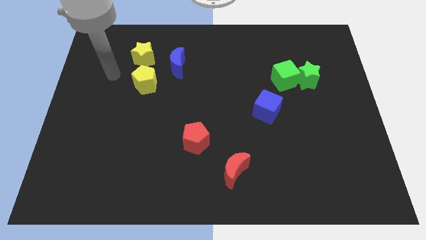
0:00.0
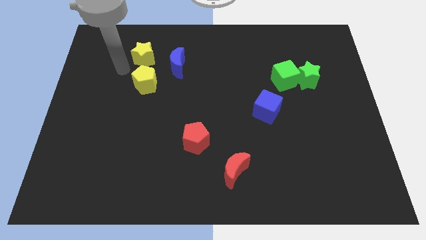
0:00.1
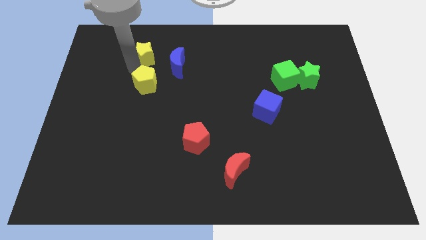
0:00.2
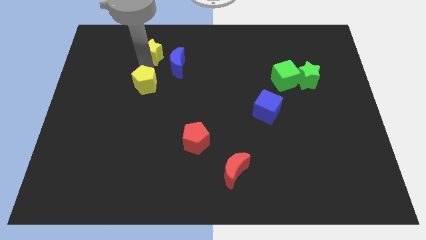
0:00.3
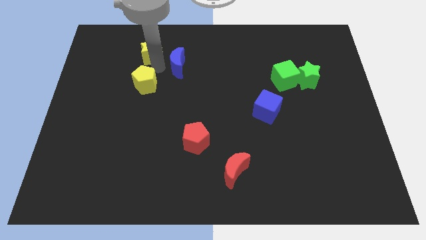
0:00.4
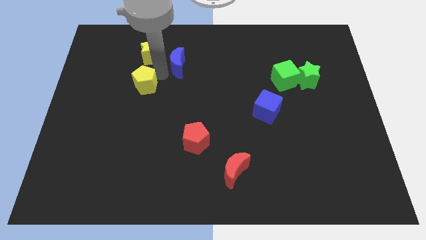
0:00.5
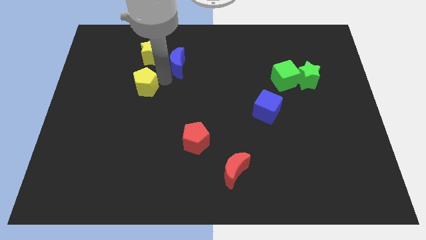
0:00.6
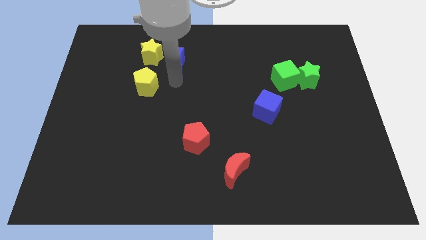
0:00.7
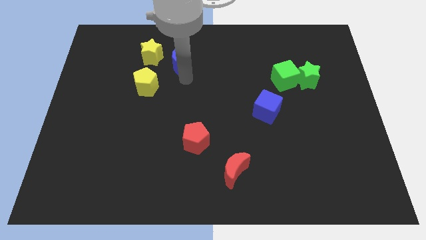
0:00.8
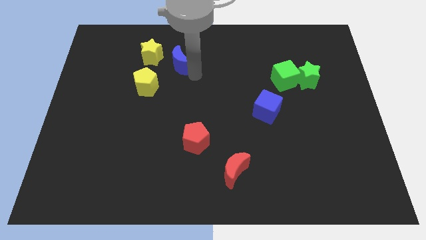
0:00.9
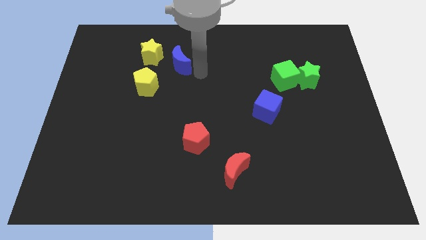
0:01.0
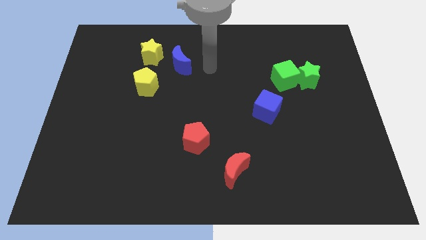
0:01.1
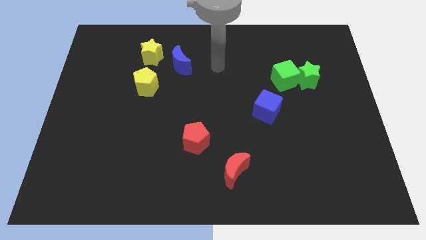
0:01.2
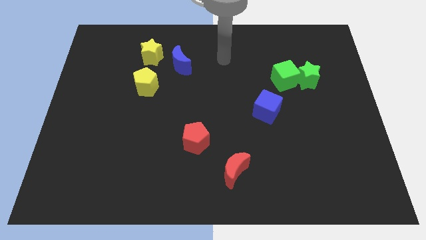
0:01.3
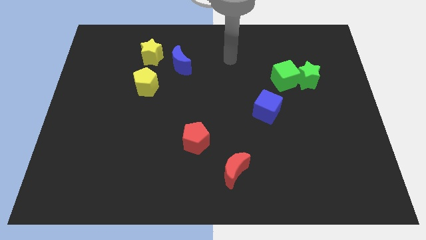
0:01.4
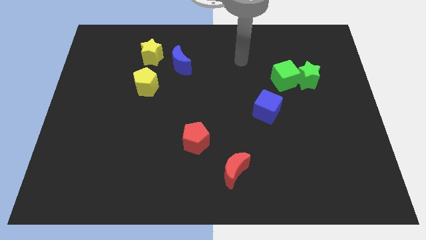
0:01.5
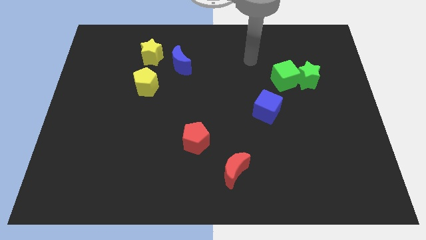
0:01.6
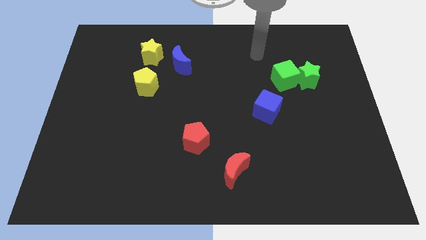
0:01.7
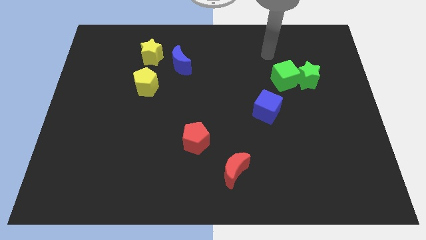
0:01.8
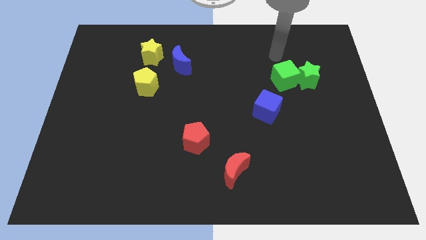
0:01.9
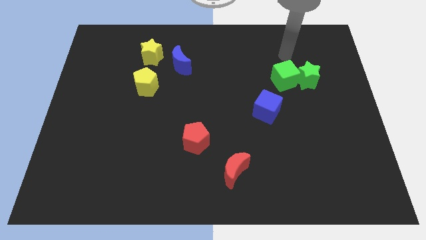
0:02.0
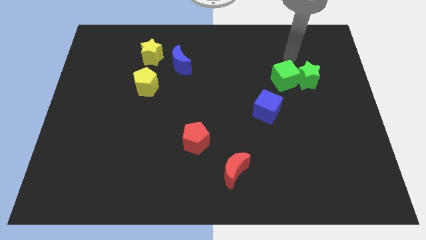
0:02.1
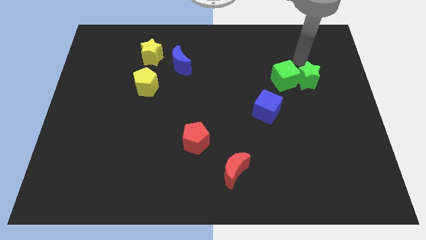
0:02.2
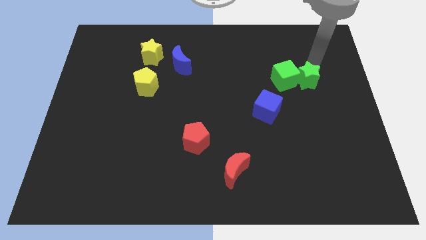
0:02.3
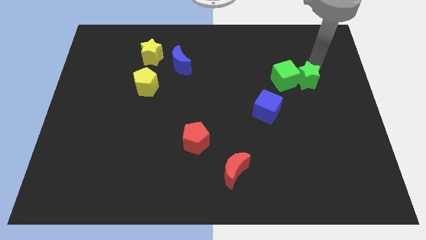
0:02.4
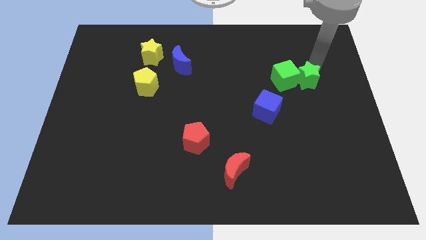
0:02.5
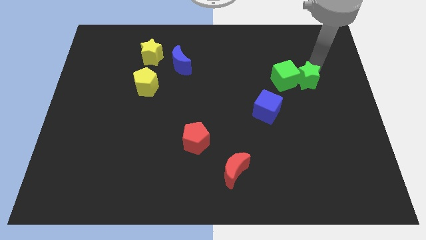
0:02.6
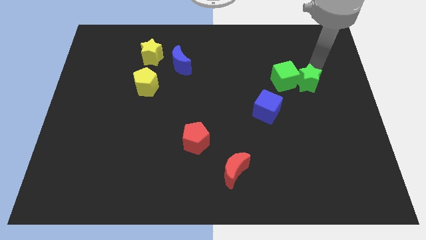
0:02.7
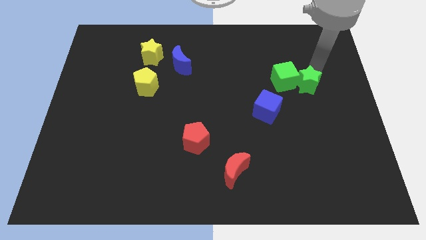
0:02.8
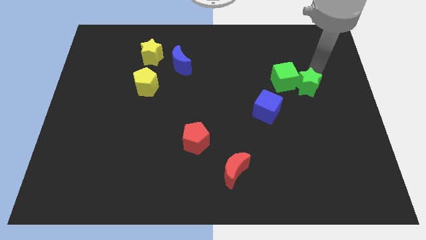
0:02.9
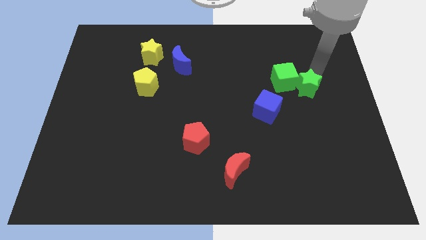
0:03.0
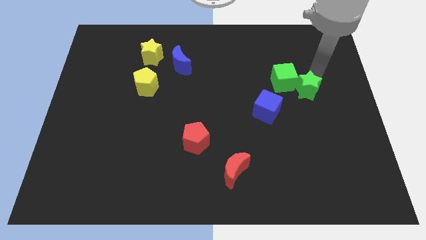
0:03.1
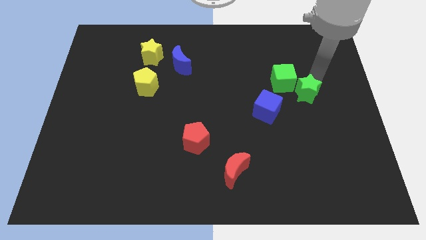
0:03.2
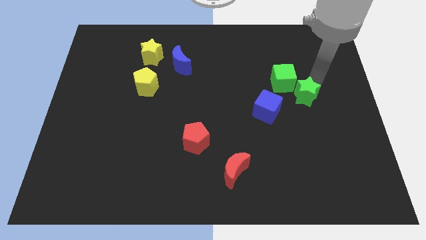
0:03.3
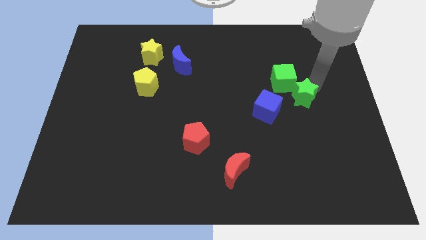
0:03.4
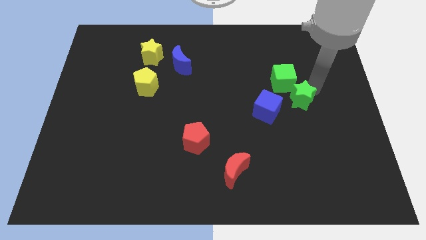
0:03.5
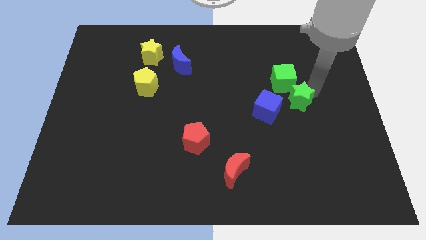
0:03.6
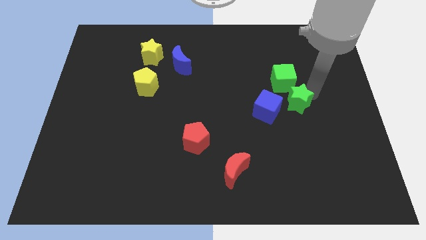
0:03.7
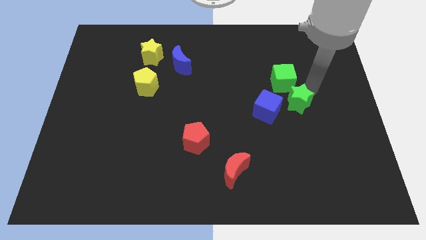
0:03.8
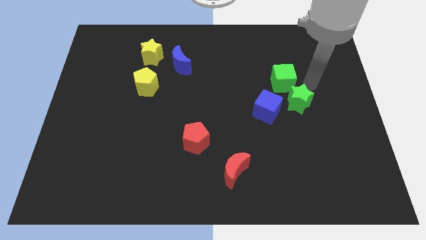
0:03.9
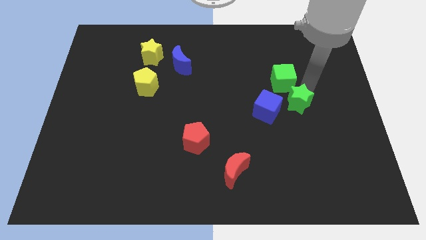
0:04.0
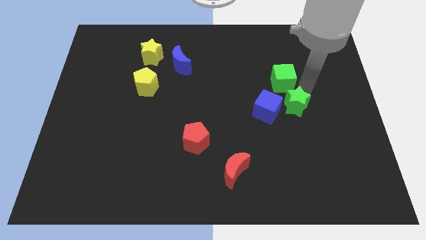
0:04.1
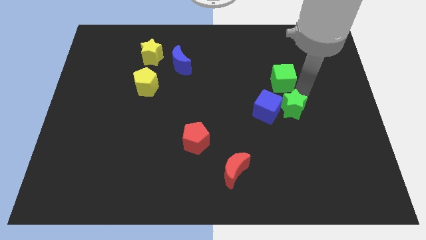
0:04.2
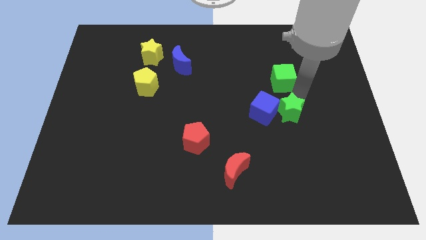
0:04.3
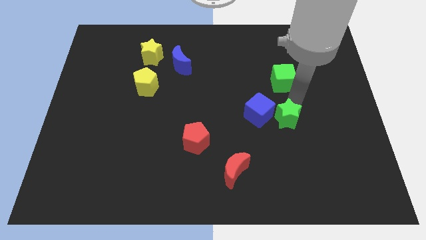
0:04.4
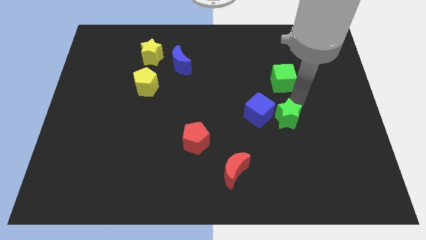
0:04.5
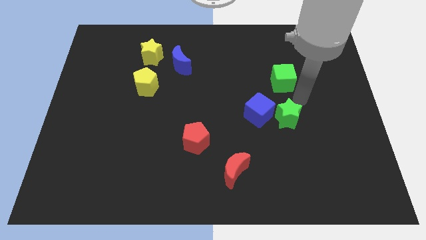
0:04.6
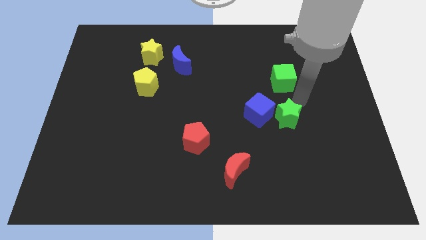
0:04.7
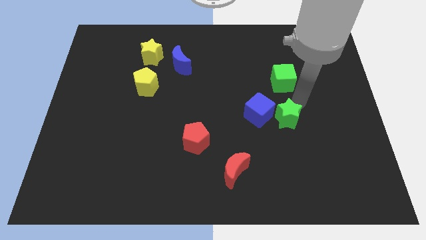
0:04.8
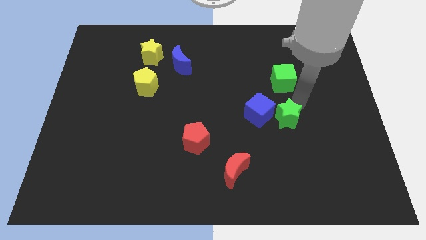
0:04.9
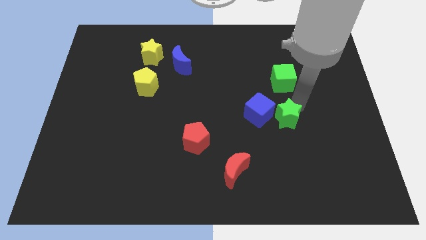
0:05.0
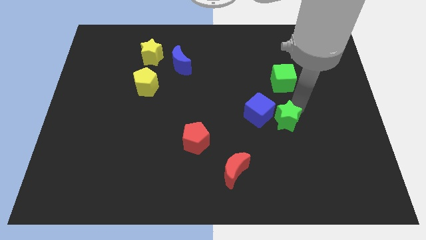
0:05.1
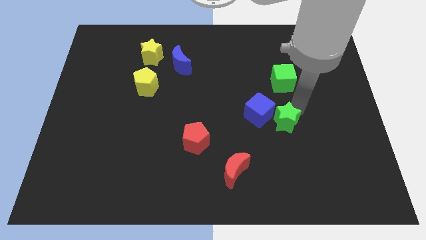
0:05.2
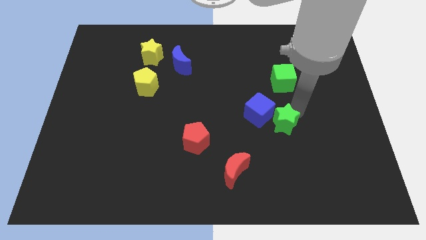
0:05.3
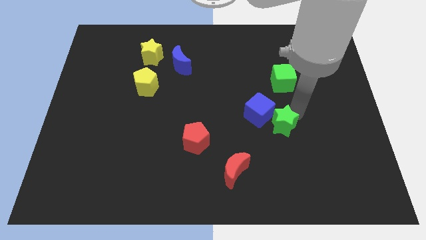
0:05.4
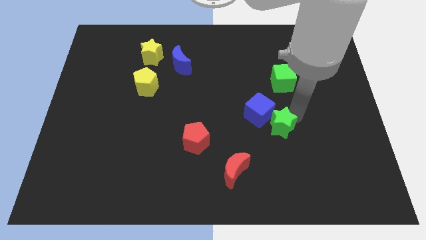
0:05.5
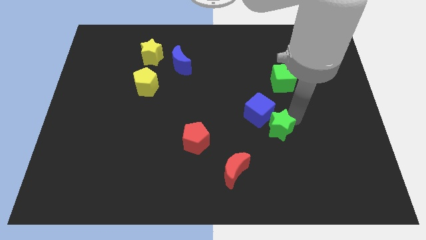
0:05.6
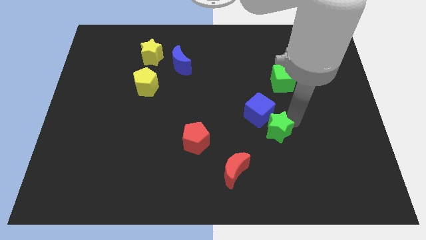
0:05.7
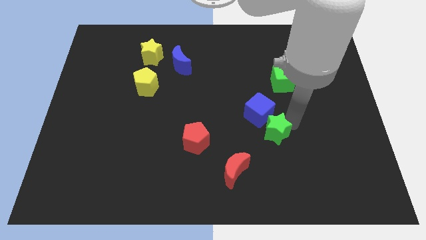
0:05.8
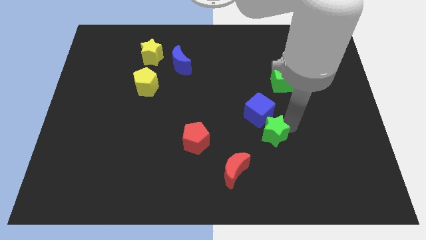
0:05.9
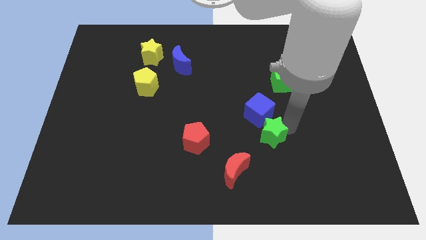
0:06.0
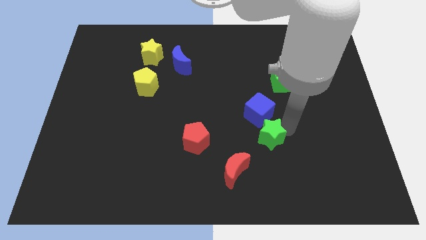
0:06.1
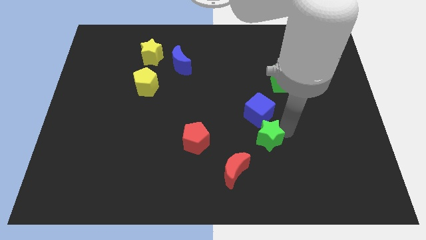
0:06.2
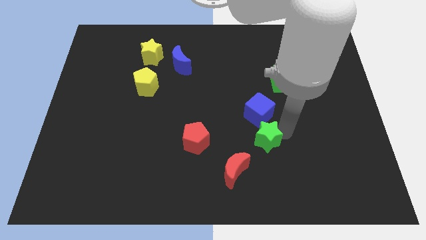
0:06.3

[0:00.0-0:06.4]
move the green star downwards and then left

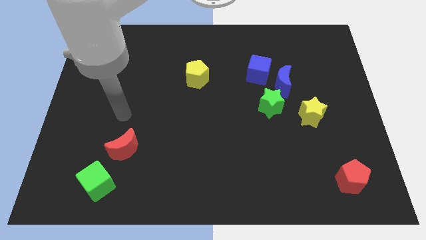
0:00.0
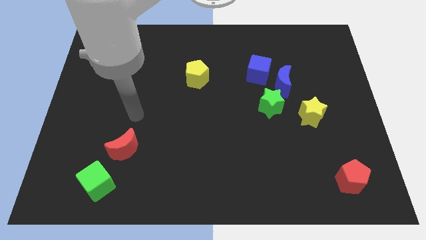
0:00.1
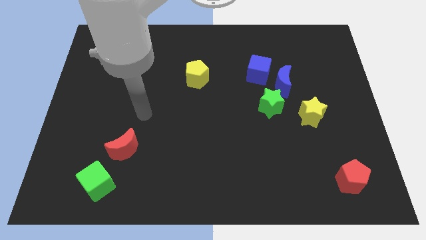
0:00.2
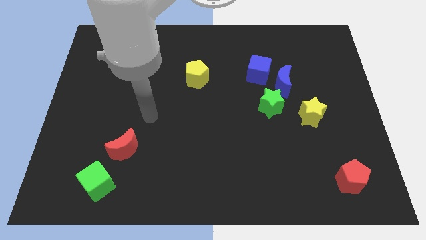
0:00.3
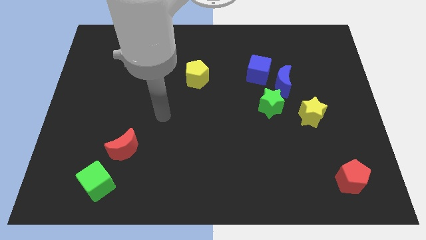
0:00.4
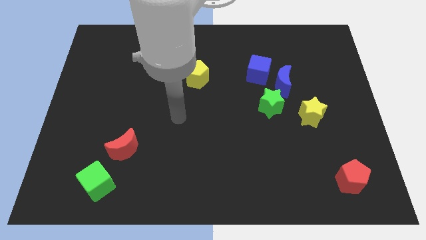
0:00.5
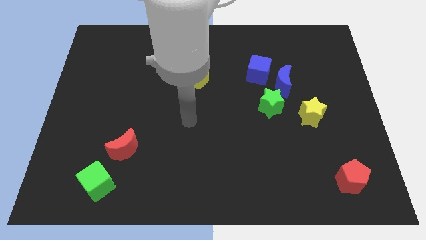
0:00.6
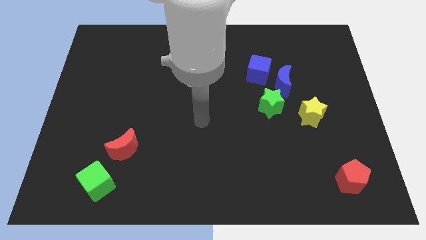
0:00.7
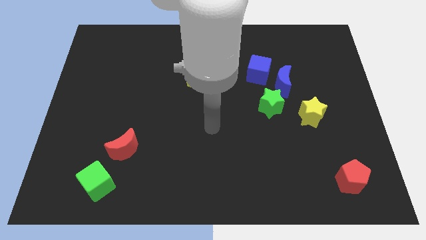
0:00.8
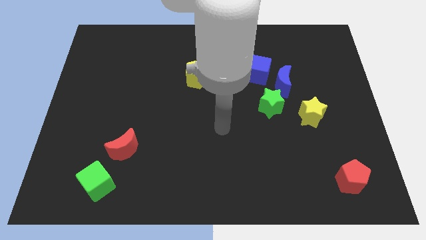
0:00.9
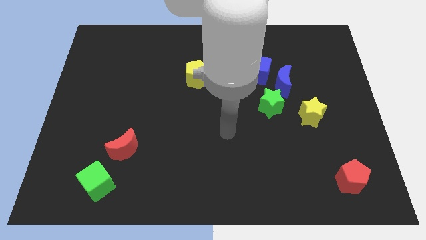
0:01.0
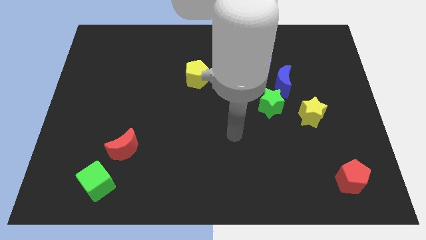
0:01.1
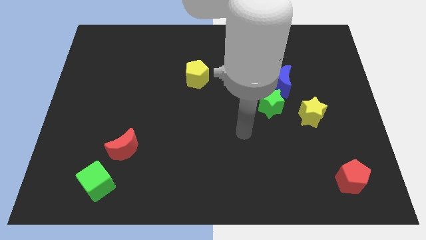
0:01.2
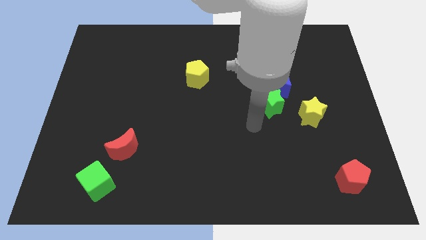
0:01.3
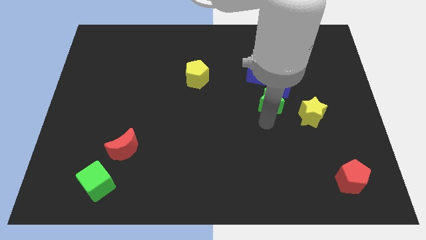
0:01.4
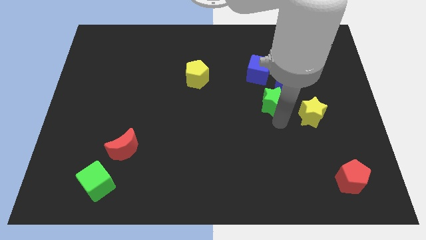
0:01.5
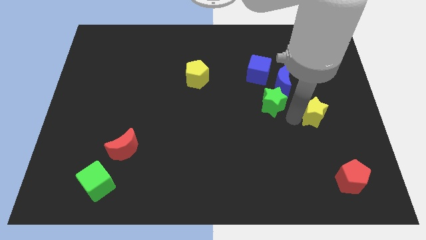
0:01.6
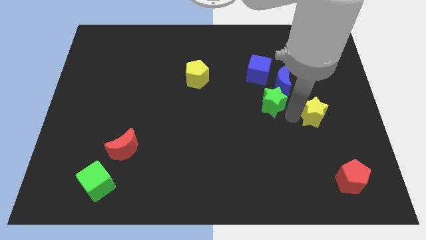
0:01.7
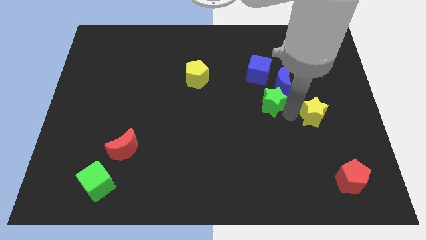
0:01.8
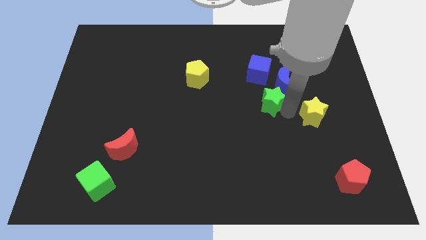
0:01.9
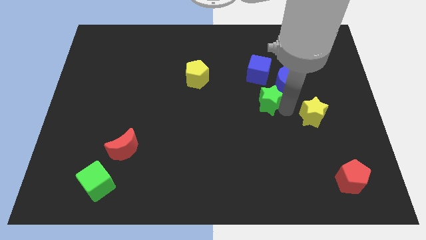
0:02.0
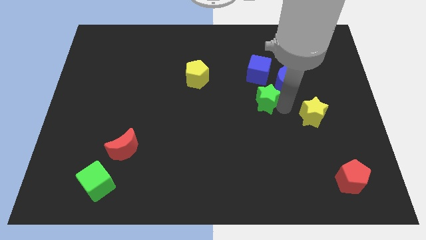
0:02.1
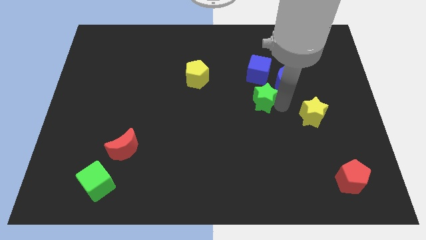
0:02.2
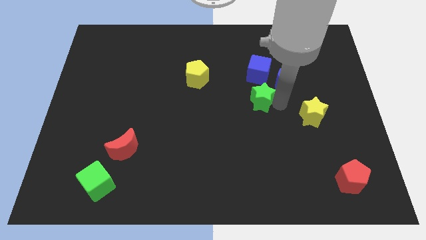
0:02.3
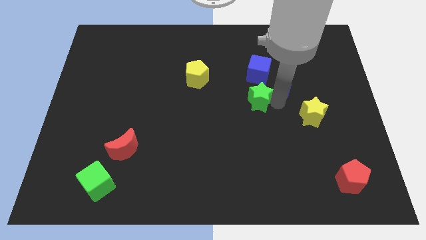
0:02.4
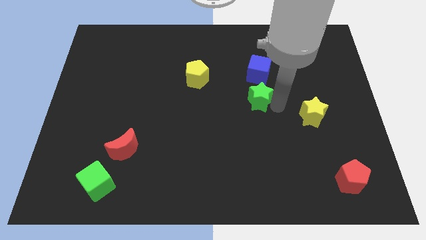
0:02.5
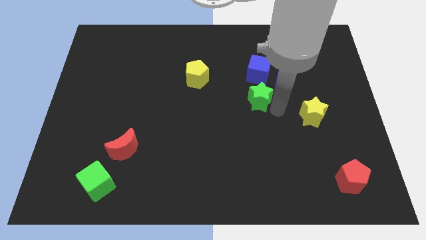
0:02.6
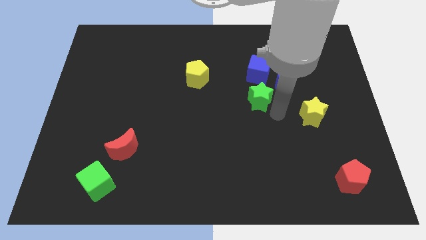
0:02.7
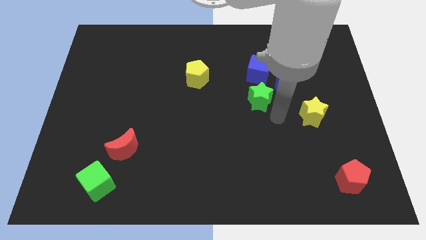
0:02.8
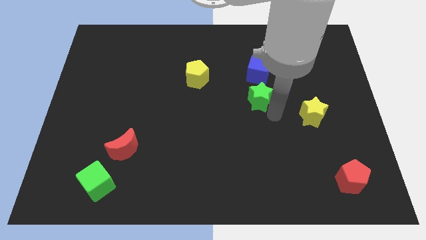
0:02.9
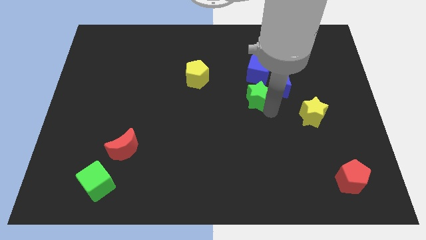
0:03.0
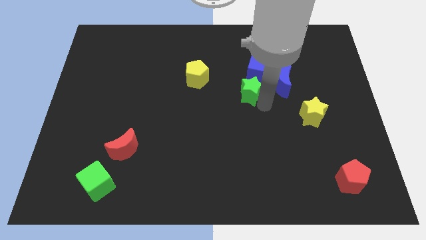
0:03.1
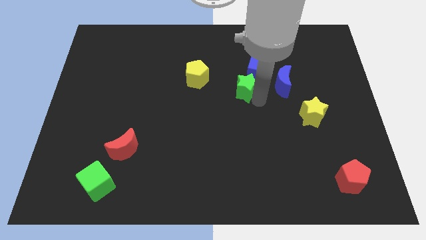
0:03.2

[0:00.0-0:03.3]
slightly push the green star upwards and left diagonally
